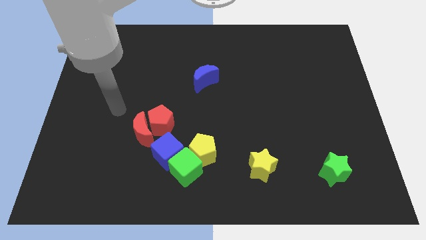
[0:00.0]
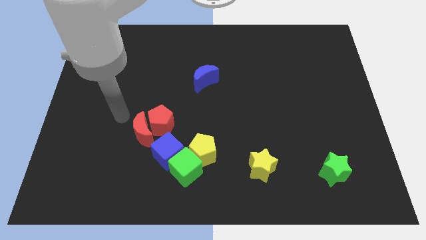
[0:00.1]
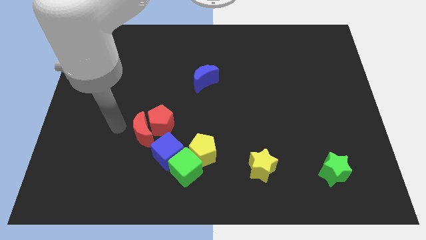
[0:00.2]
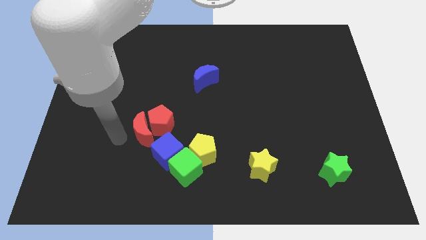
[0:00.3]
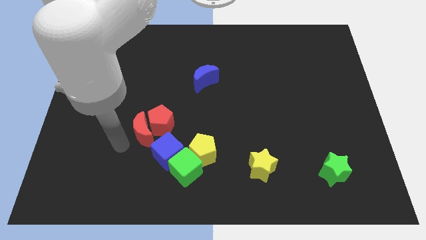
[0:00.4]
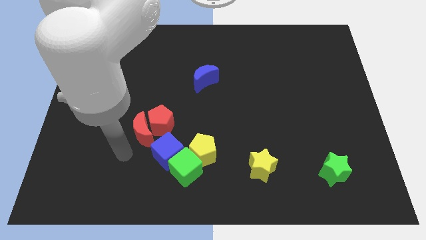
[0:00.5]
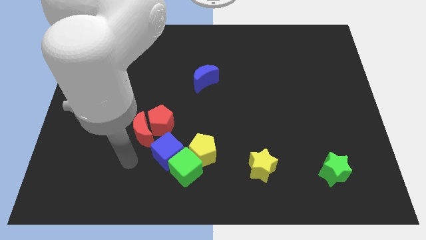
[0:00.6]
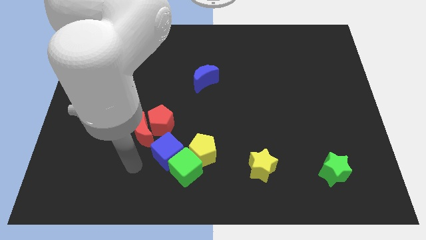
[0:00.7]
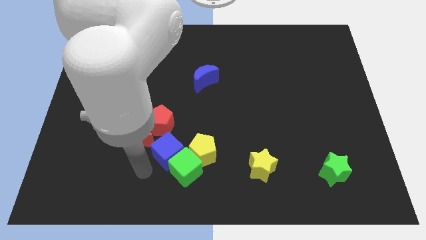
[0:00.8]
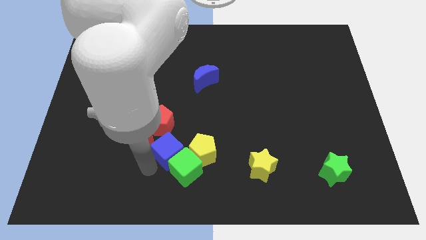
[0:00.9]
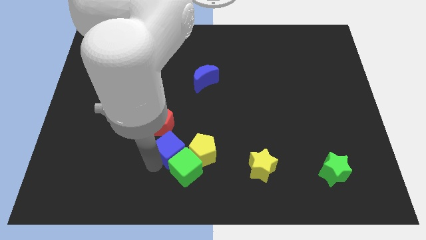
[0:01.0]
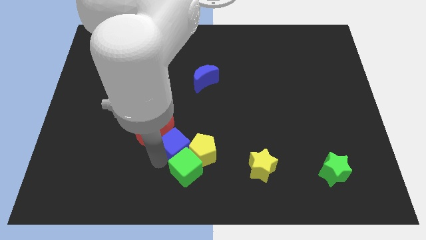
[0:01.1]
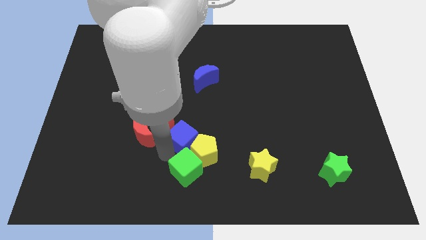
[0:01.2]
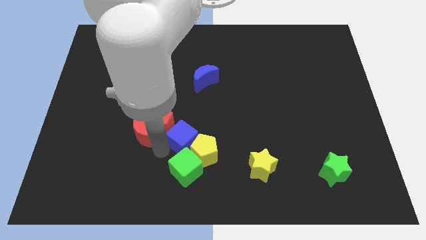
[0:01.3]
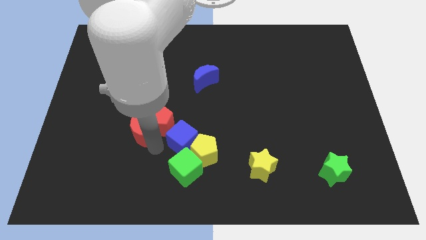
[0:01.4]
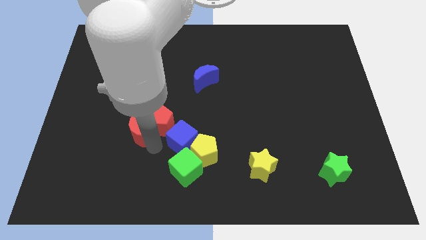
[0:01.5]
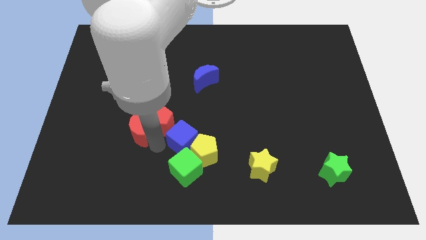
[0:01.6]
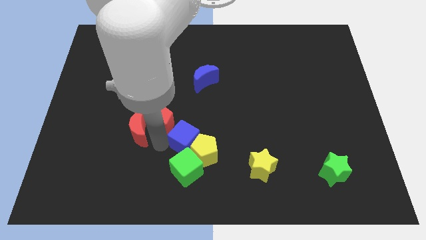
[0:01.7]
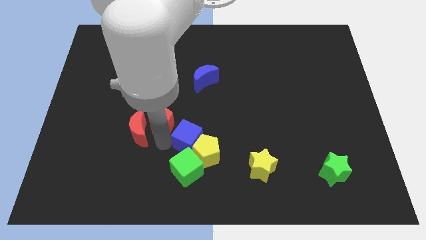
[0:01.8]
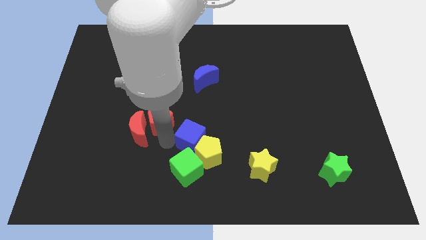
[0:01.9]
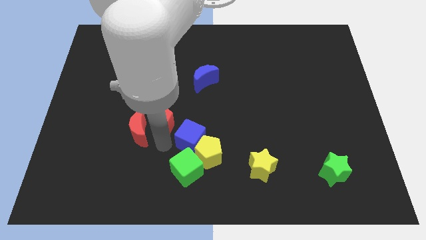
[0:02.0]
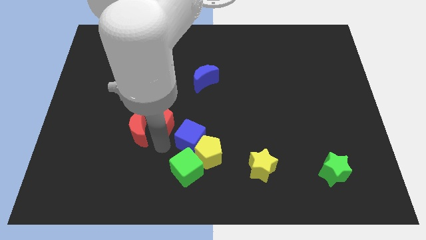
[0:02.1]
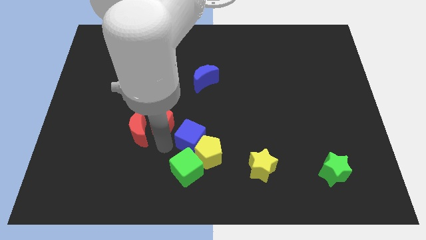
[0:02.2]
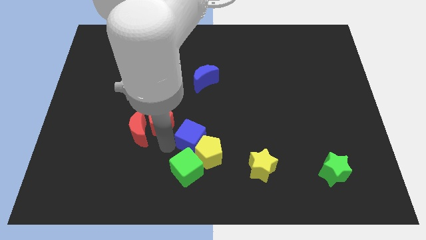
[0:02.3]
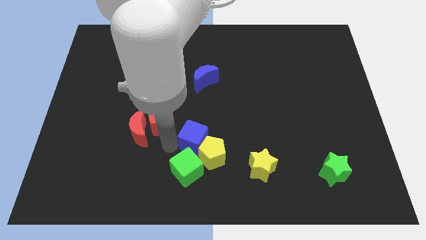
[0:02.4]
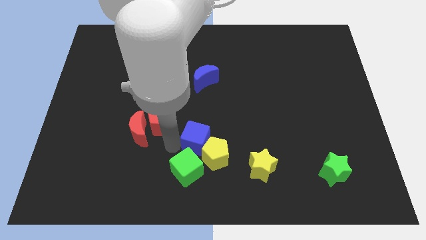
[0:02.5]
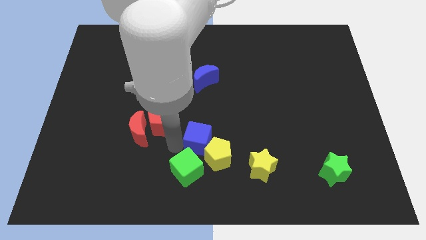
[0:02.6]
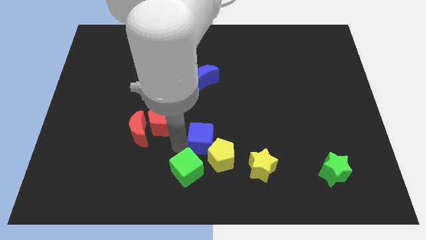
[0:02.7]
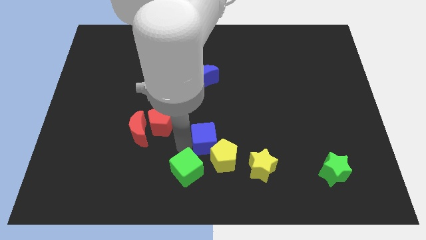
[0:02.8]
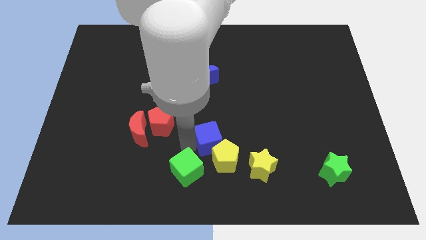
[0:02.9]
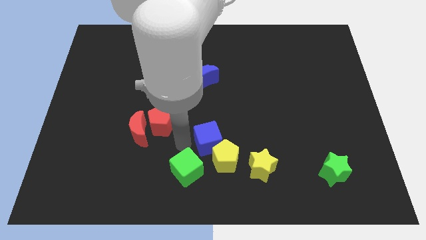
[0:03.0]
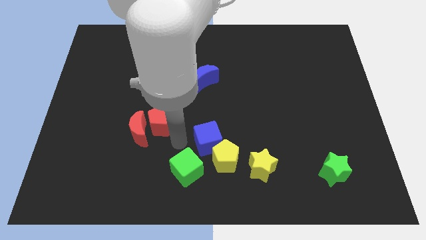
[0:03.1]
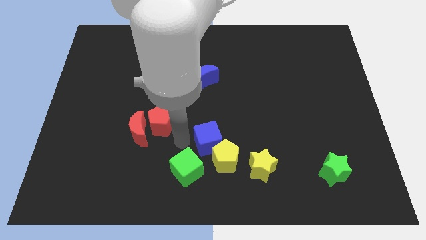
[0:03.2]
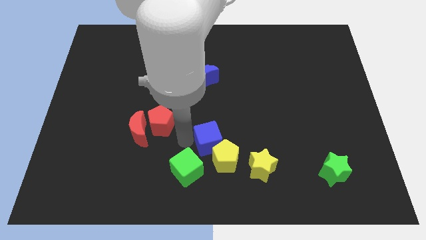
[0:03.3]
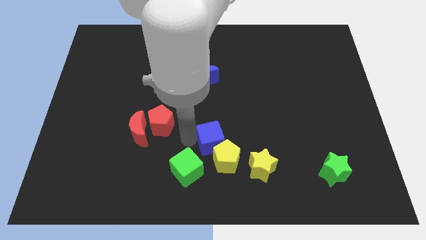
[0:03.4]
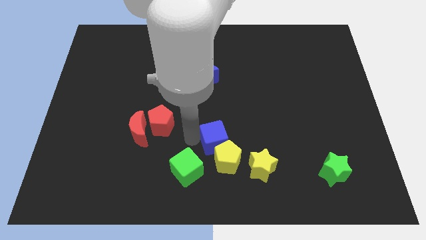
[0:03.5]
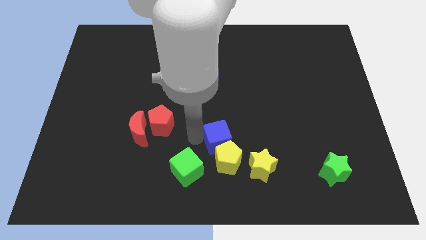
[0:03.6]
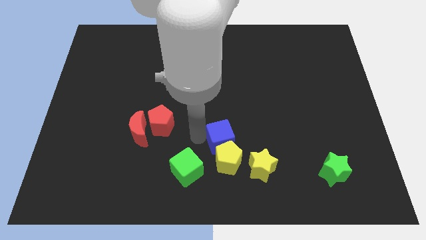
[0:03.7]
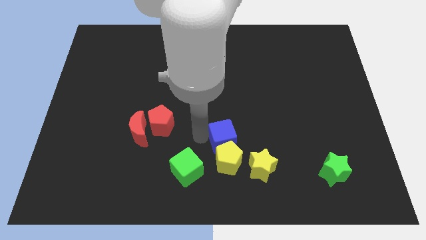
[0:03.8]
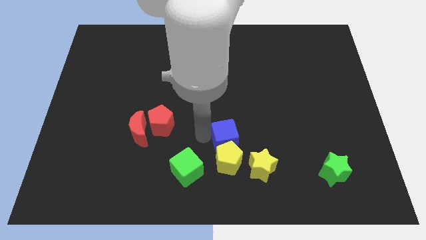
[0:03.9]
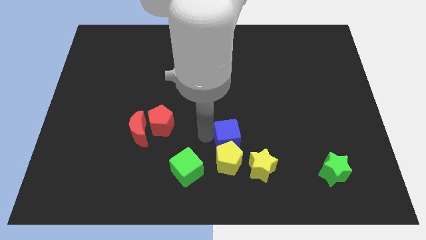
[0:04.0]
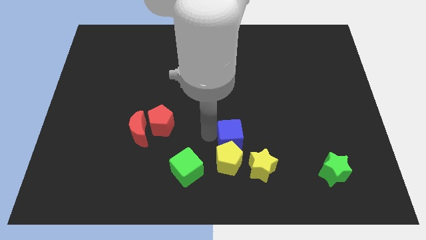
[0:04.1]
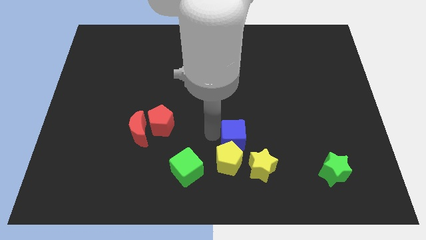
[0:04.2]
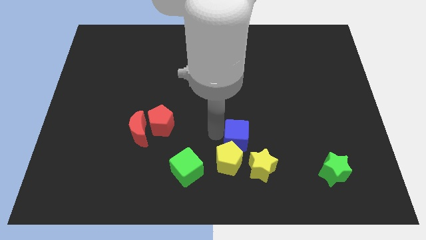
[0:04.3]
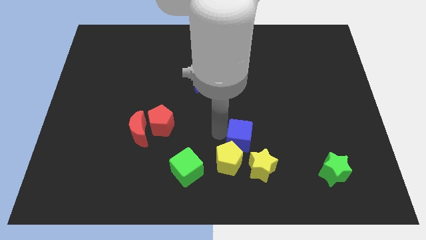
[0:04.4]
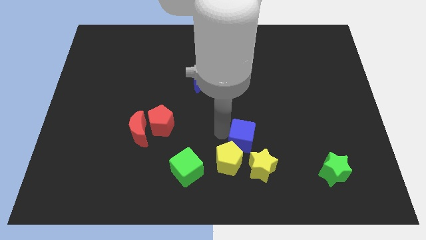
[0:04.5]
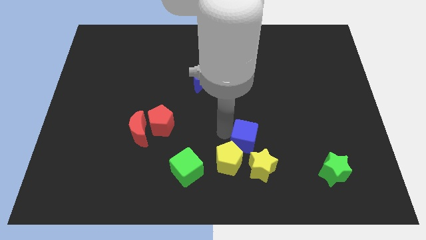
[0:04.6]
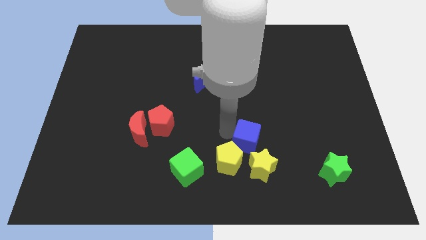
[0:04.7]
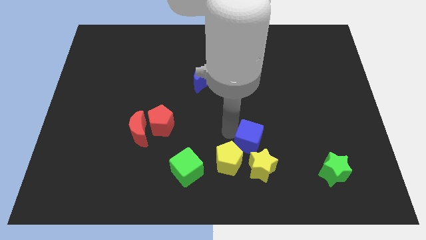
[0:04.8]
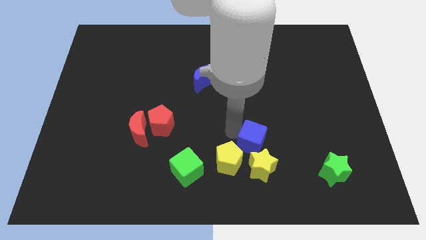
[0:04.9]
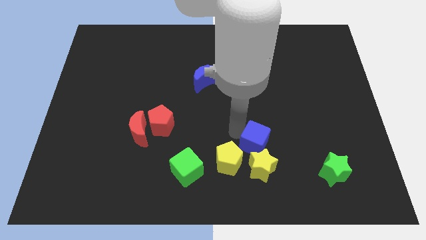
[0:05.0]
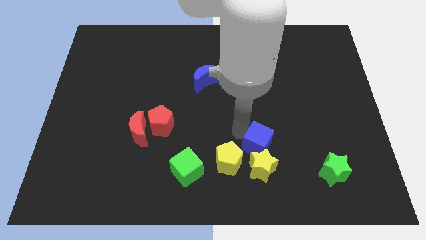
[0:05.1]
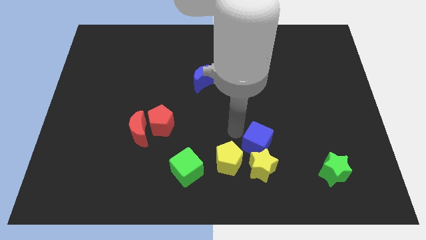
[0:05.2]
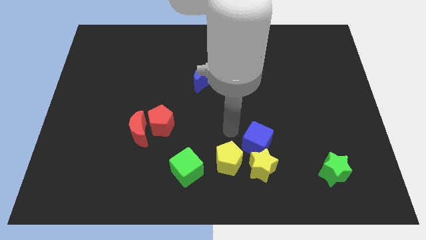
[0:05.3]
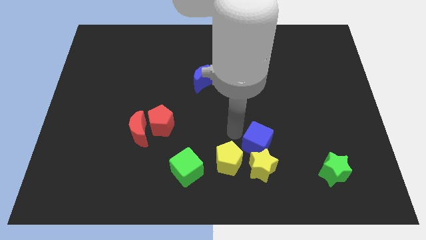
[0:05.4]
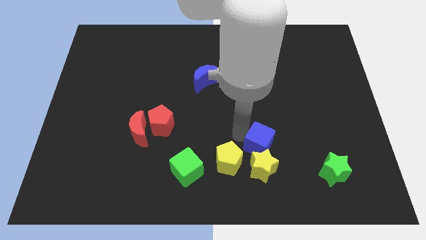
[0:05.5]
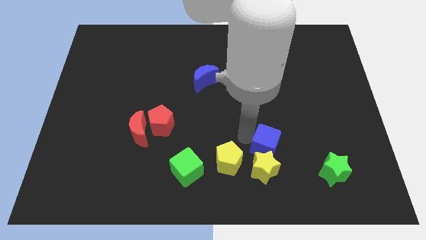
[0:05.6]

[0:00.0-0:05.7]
push the blue cube to the right

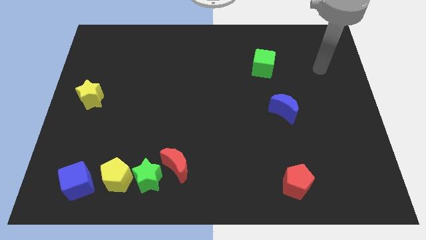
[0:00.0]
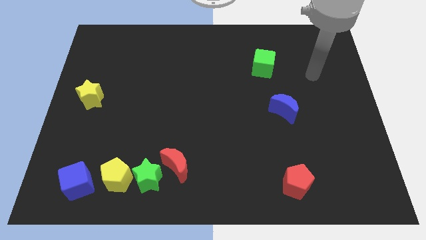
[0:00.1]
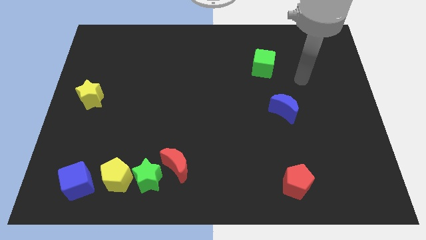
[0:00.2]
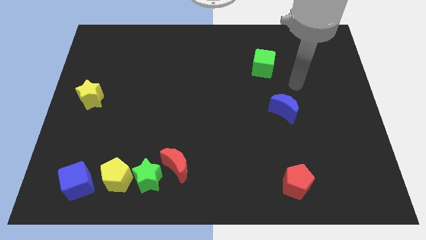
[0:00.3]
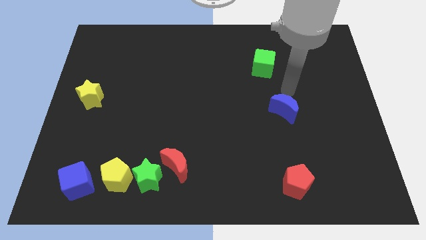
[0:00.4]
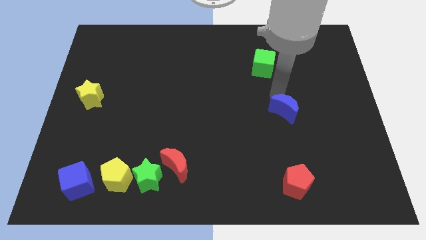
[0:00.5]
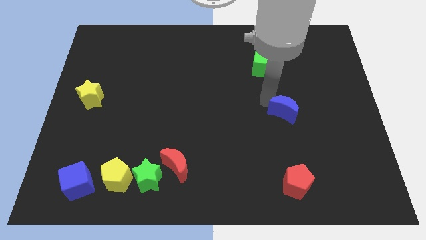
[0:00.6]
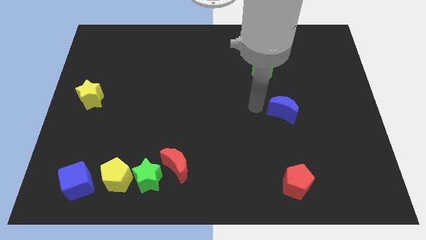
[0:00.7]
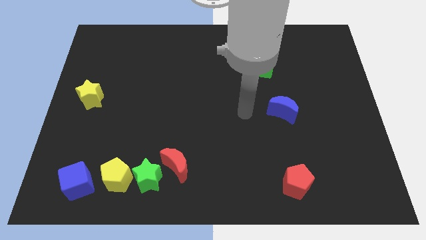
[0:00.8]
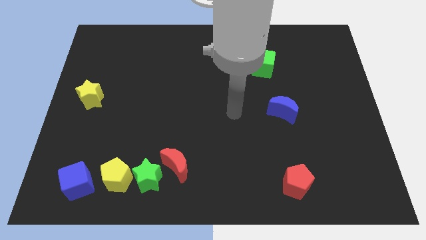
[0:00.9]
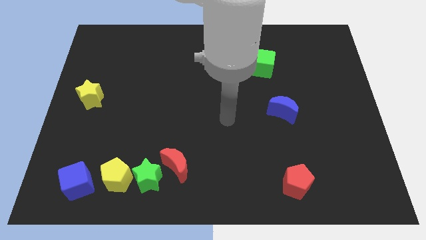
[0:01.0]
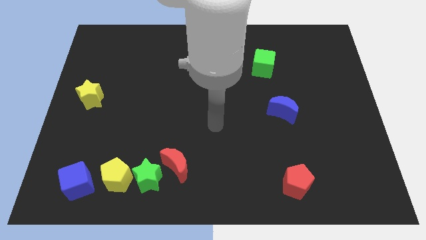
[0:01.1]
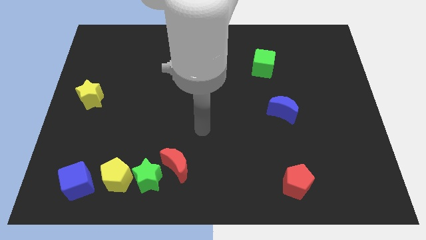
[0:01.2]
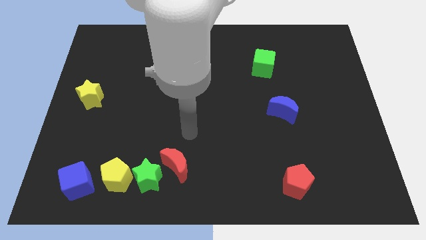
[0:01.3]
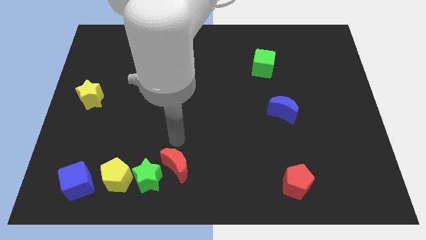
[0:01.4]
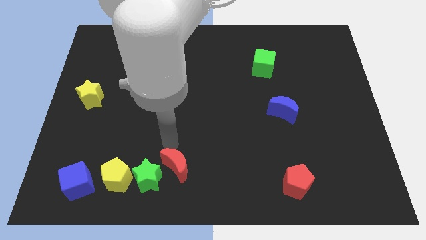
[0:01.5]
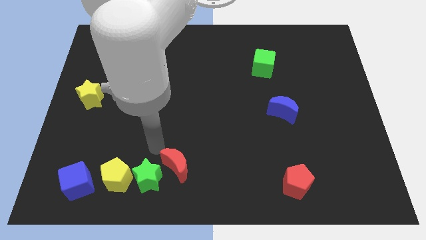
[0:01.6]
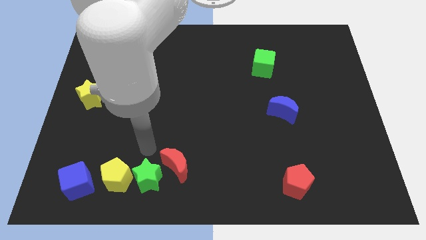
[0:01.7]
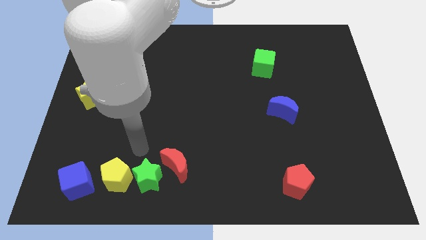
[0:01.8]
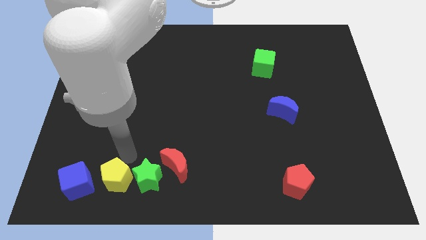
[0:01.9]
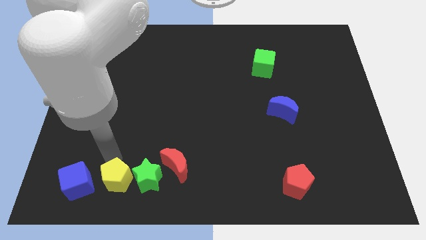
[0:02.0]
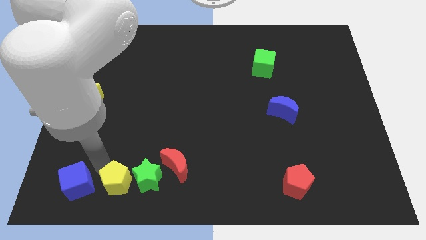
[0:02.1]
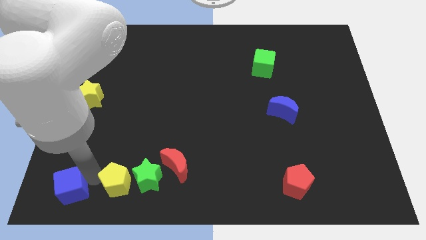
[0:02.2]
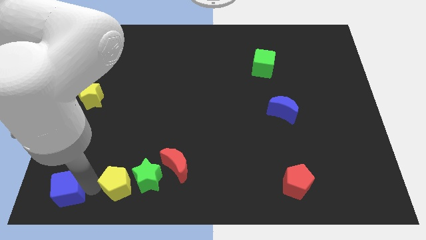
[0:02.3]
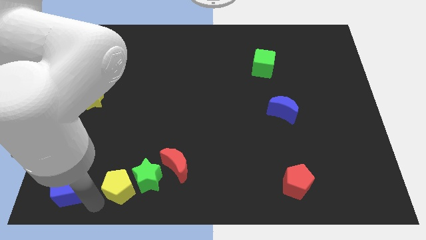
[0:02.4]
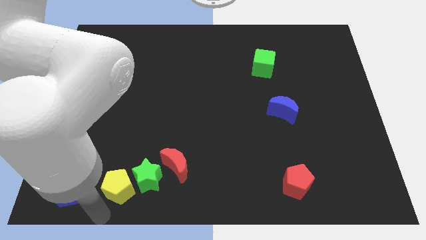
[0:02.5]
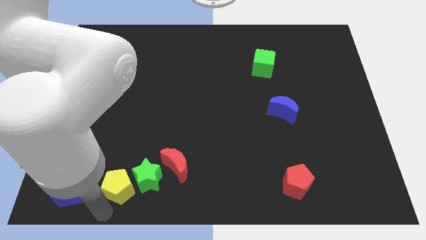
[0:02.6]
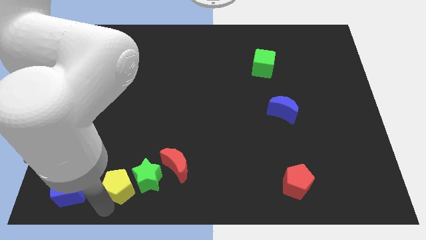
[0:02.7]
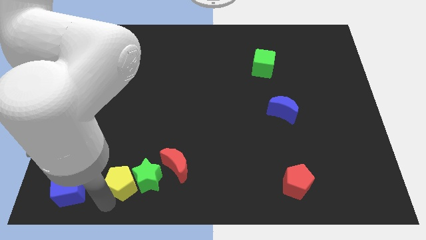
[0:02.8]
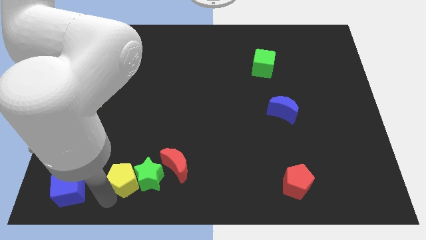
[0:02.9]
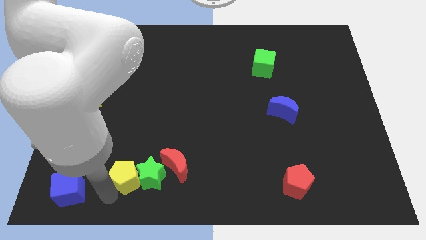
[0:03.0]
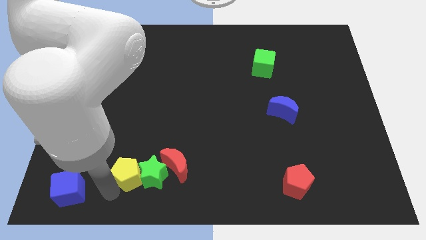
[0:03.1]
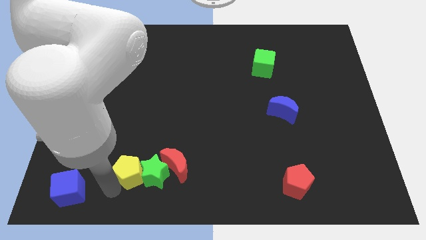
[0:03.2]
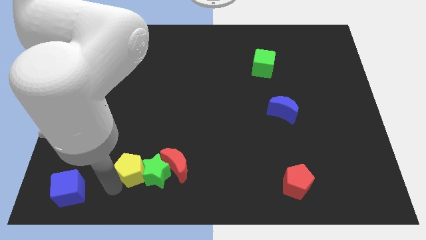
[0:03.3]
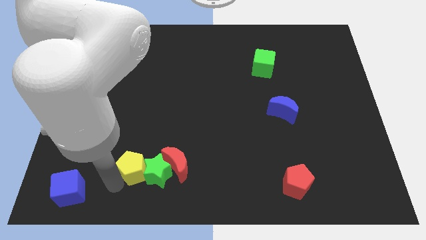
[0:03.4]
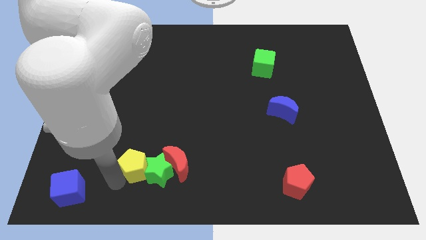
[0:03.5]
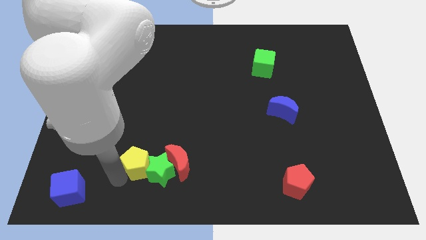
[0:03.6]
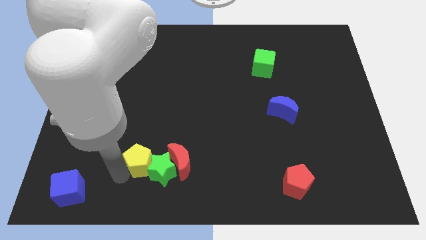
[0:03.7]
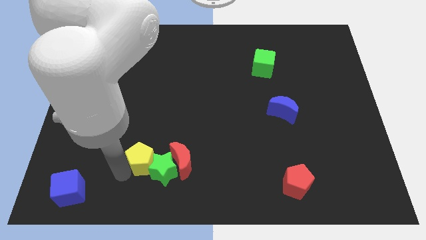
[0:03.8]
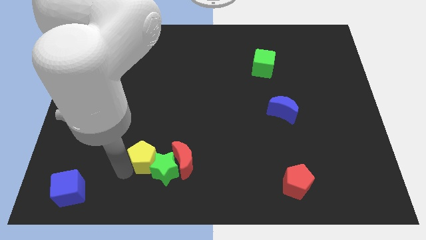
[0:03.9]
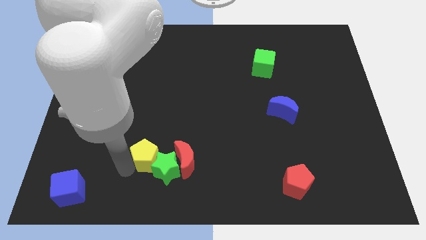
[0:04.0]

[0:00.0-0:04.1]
move the yellow pentagon up and to the right diagonally slightly
